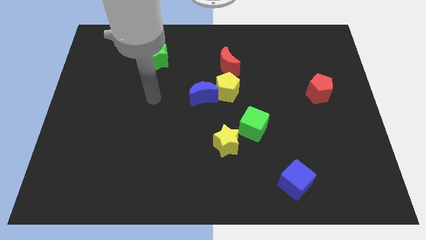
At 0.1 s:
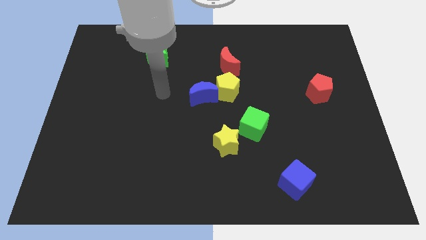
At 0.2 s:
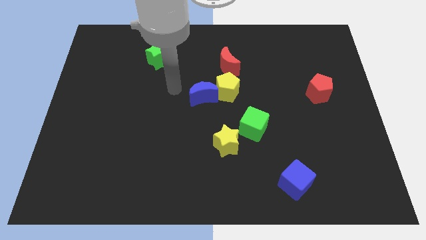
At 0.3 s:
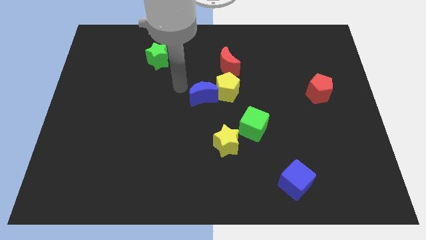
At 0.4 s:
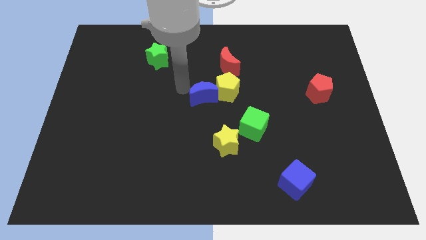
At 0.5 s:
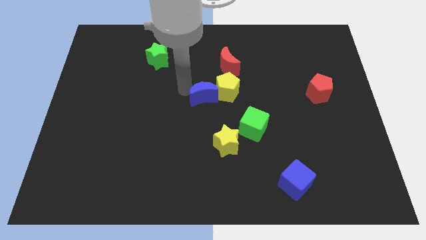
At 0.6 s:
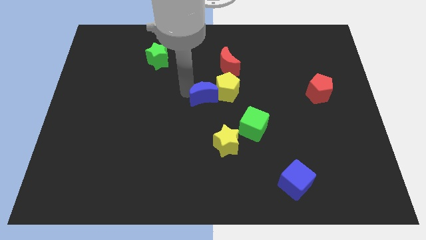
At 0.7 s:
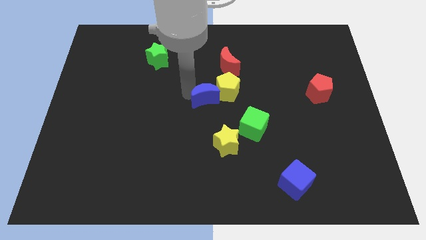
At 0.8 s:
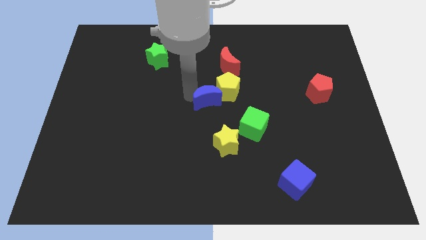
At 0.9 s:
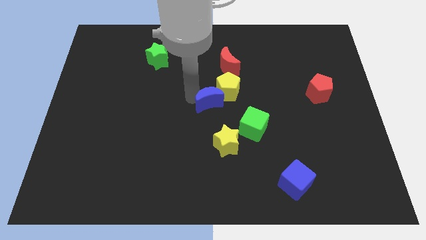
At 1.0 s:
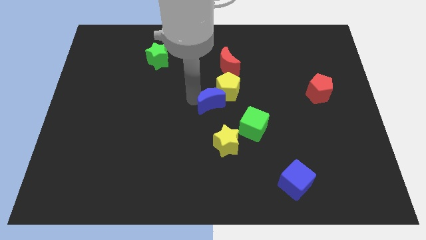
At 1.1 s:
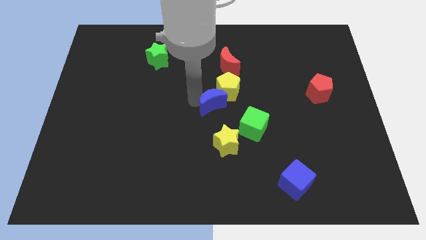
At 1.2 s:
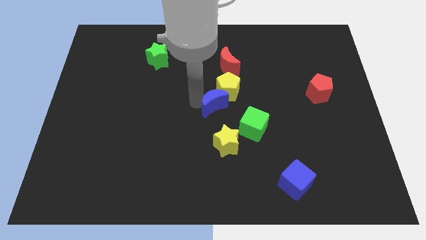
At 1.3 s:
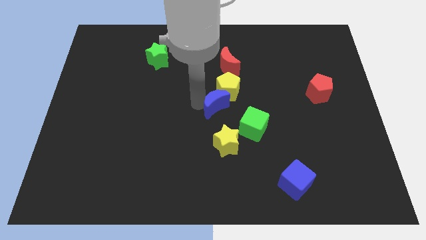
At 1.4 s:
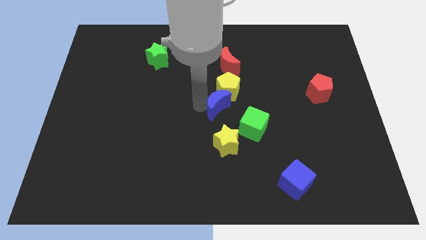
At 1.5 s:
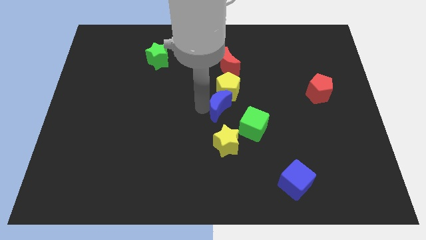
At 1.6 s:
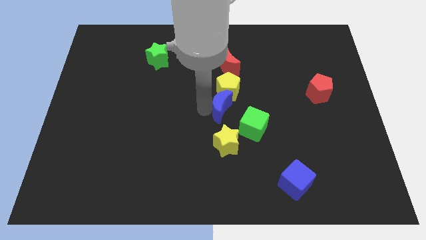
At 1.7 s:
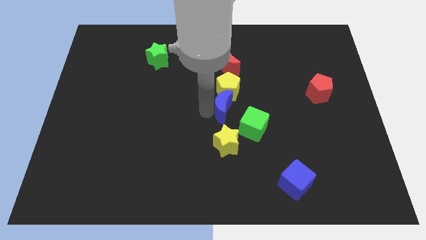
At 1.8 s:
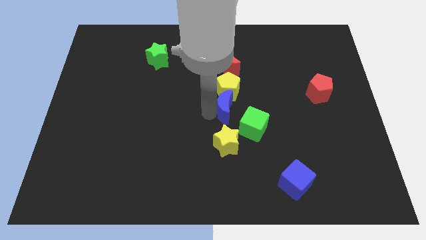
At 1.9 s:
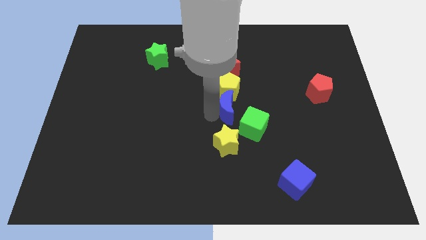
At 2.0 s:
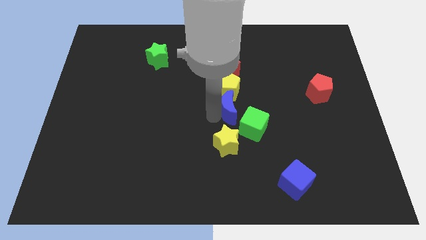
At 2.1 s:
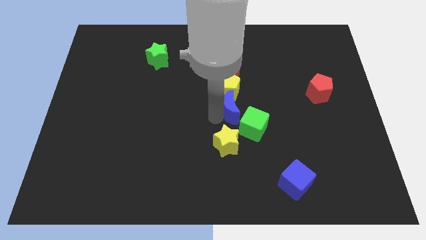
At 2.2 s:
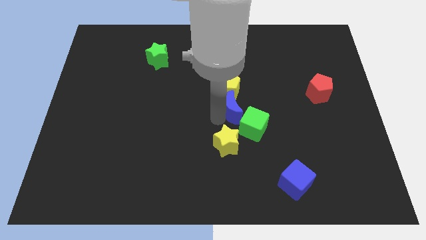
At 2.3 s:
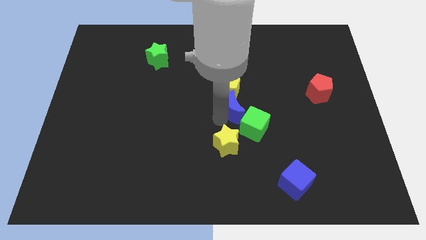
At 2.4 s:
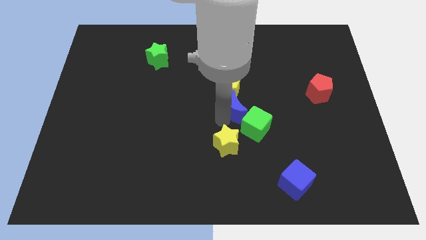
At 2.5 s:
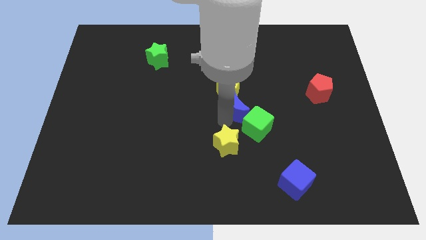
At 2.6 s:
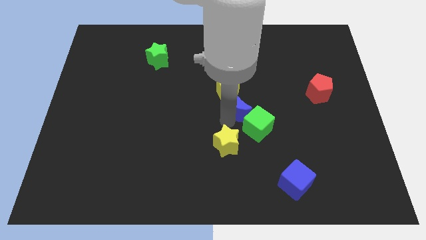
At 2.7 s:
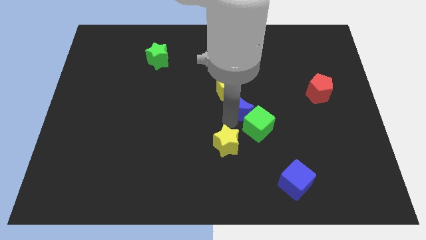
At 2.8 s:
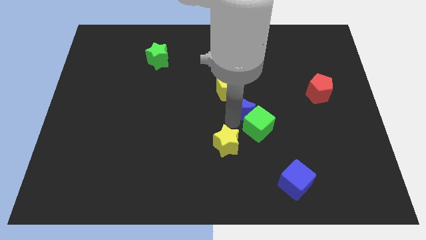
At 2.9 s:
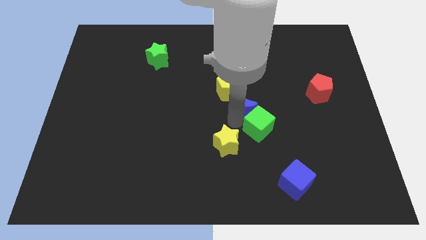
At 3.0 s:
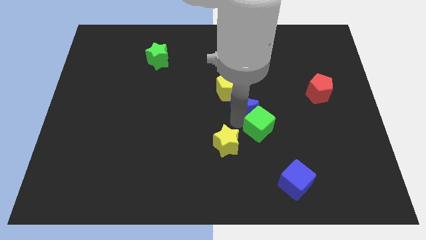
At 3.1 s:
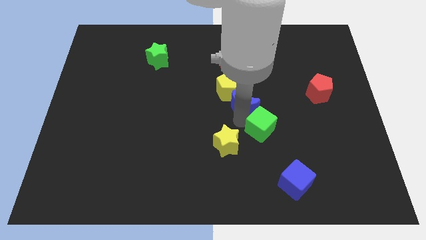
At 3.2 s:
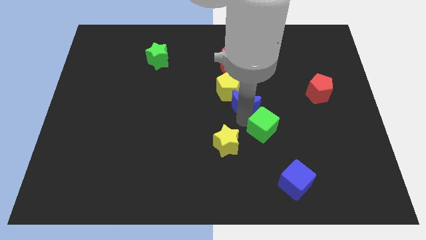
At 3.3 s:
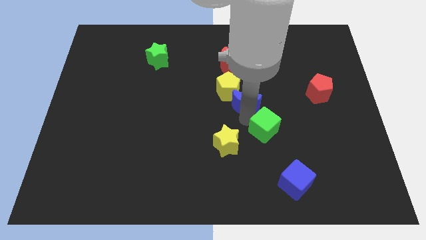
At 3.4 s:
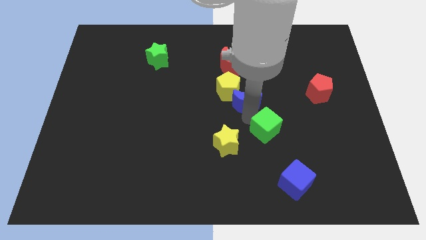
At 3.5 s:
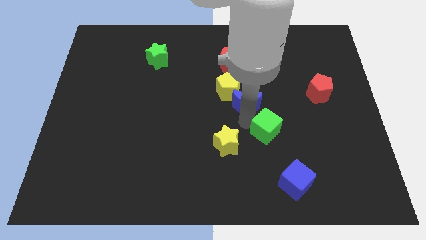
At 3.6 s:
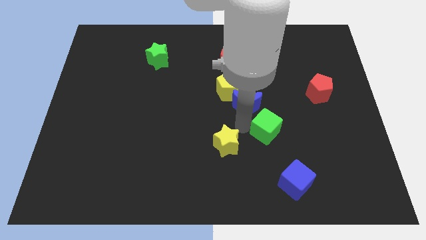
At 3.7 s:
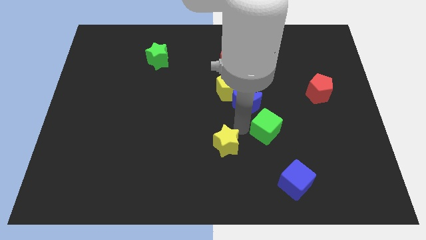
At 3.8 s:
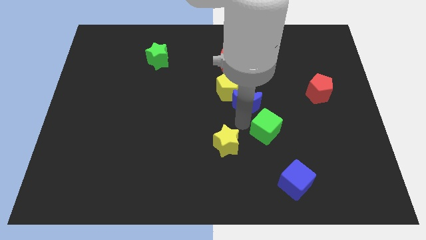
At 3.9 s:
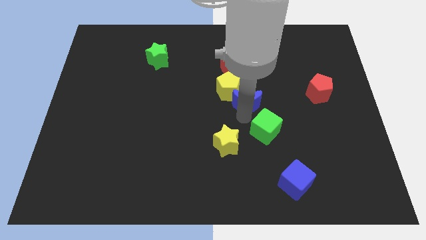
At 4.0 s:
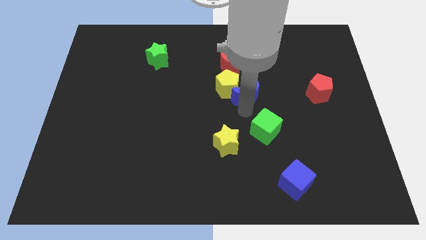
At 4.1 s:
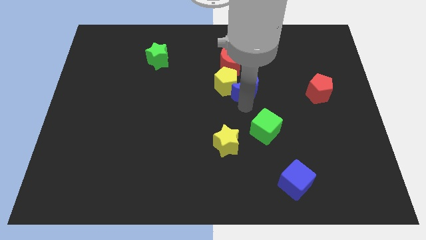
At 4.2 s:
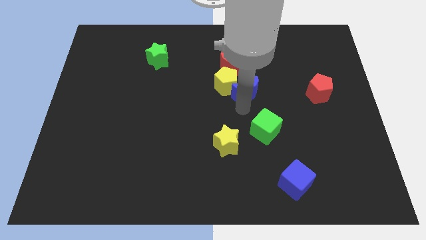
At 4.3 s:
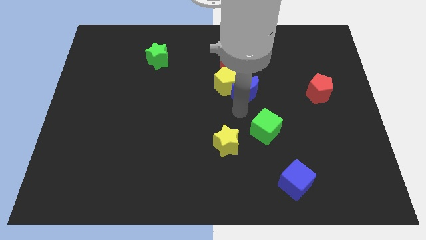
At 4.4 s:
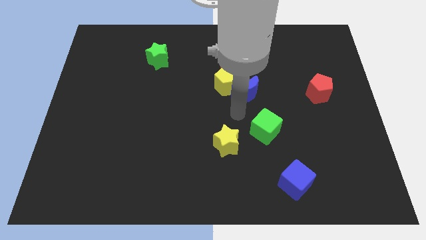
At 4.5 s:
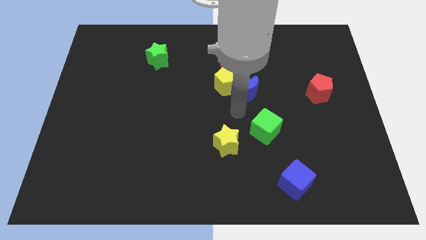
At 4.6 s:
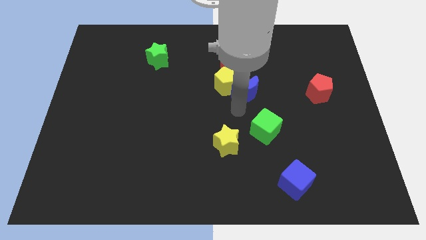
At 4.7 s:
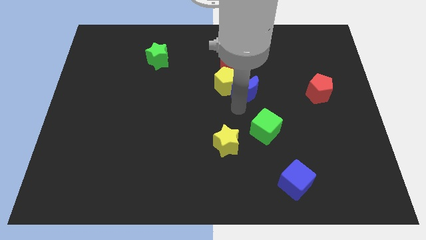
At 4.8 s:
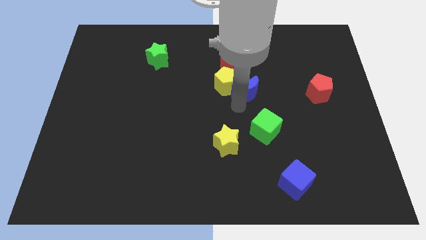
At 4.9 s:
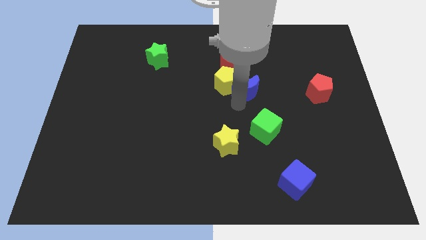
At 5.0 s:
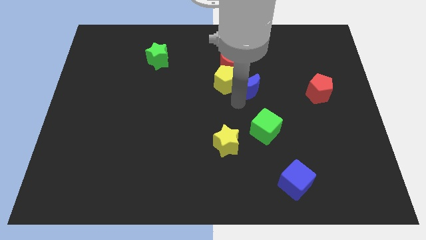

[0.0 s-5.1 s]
move the blue moon up and right diagonally slightly

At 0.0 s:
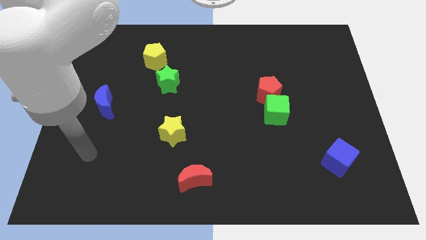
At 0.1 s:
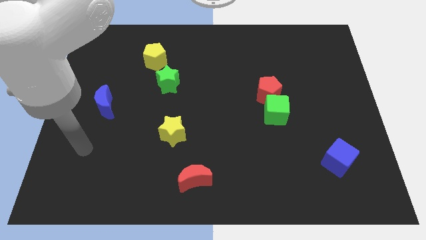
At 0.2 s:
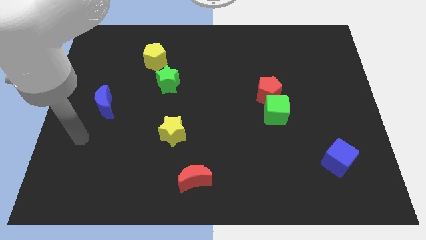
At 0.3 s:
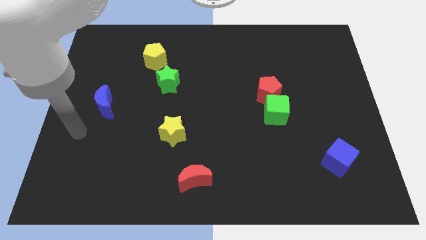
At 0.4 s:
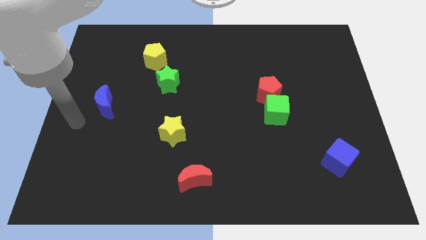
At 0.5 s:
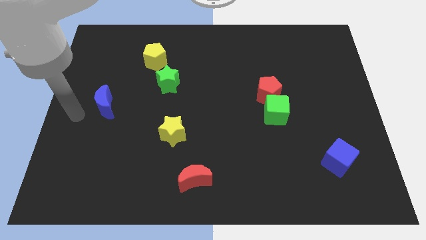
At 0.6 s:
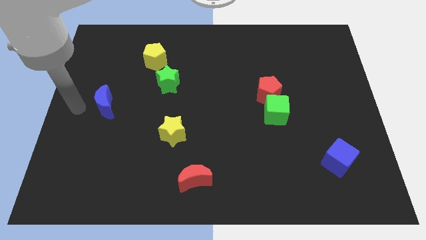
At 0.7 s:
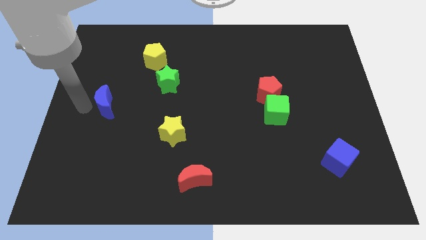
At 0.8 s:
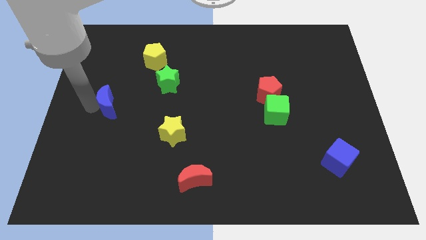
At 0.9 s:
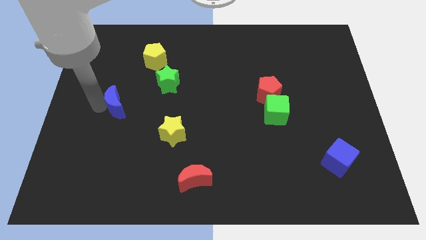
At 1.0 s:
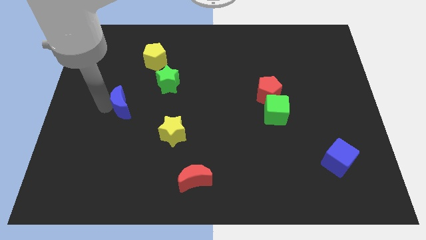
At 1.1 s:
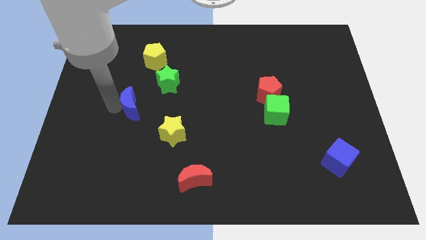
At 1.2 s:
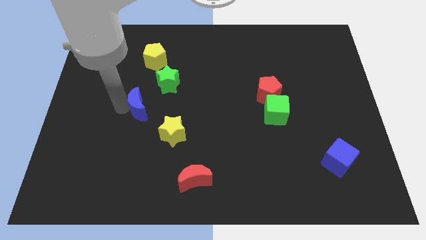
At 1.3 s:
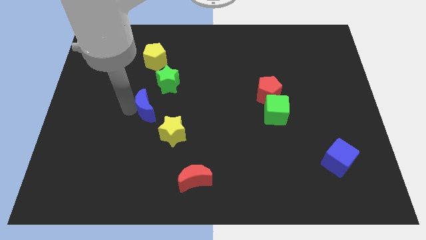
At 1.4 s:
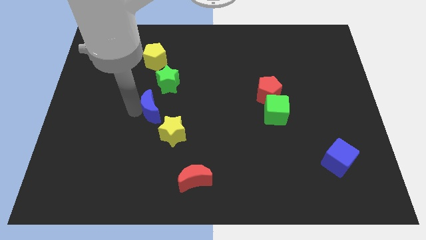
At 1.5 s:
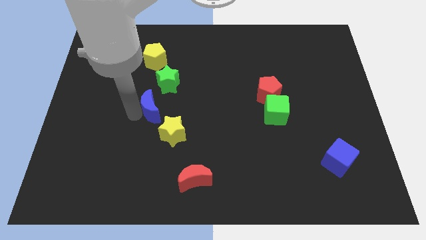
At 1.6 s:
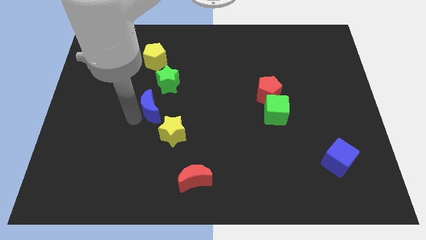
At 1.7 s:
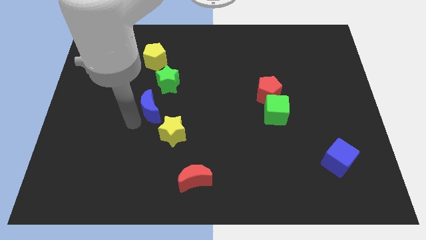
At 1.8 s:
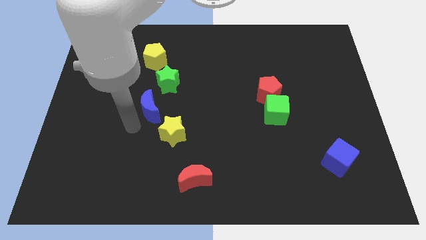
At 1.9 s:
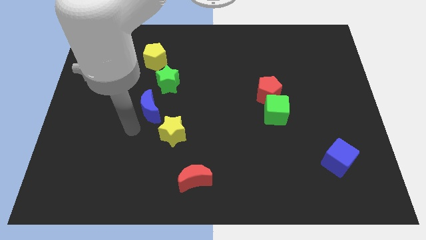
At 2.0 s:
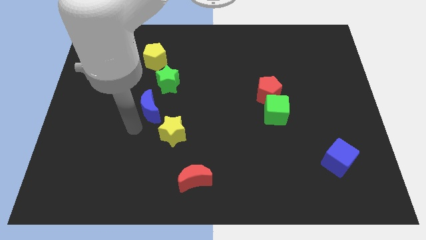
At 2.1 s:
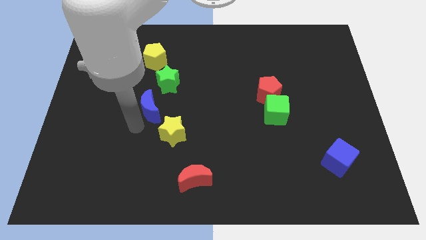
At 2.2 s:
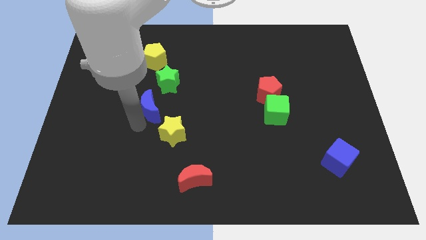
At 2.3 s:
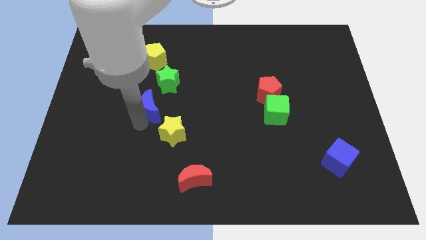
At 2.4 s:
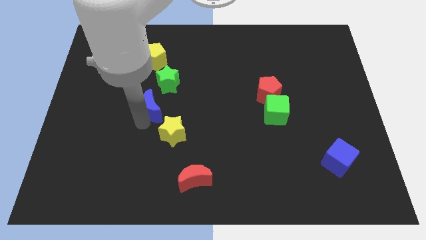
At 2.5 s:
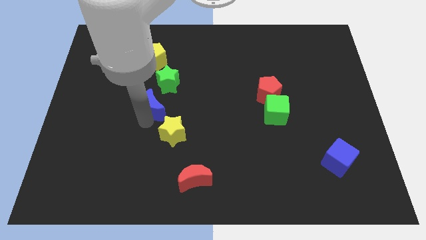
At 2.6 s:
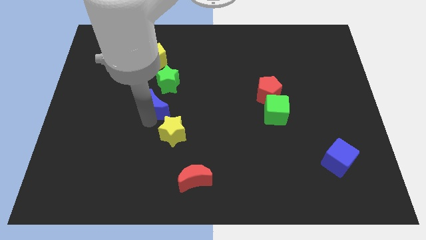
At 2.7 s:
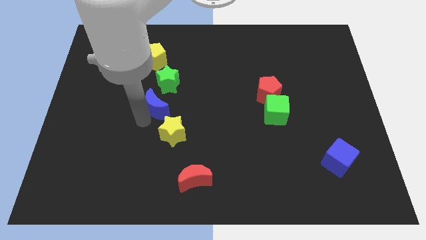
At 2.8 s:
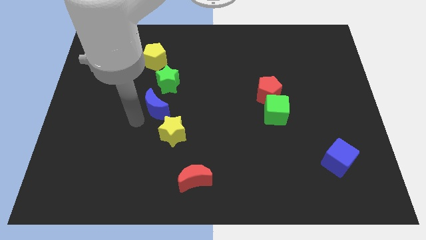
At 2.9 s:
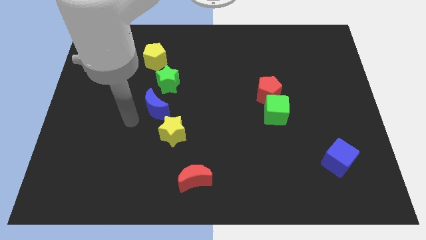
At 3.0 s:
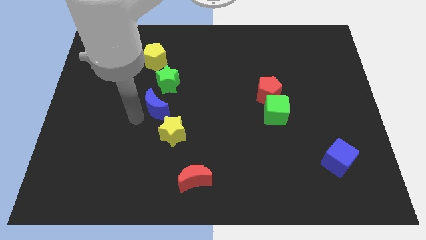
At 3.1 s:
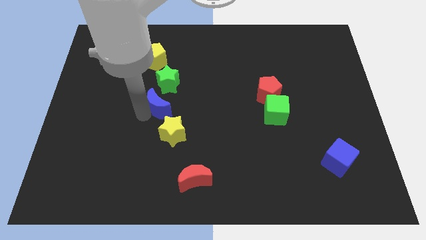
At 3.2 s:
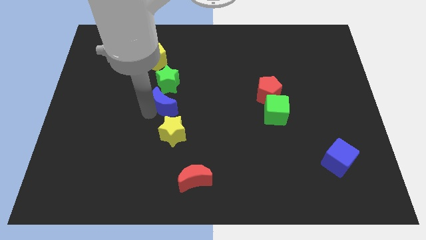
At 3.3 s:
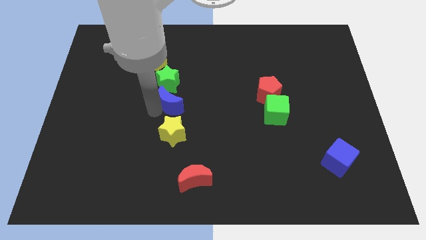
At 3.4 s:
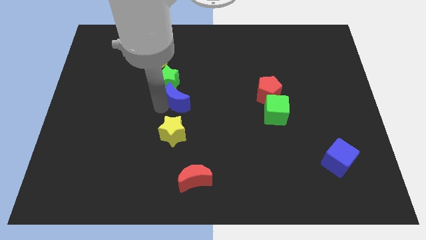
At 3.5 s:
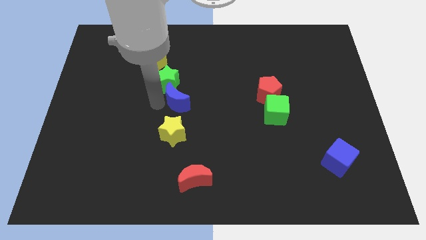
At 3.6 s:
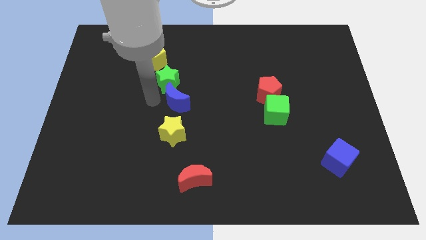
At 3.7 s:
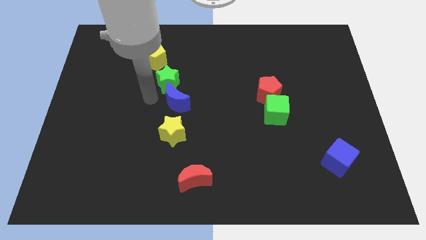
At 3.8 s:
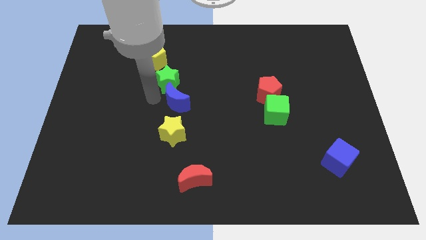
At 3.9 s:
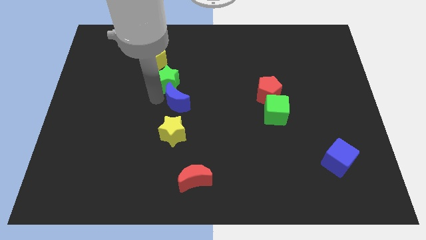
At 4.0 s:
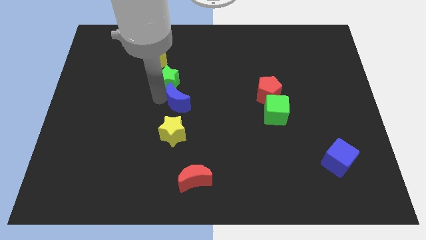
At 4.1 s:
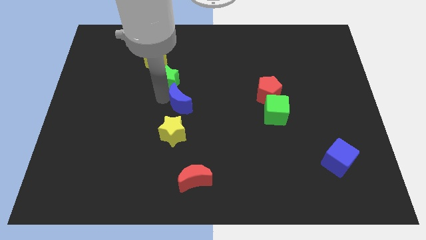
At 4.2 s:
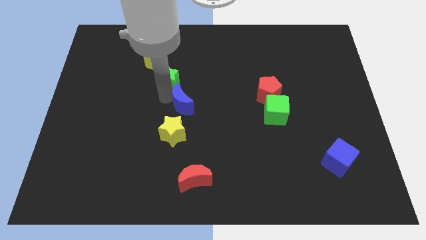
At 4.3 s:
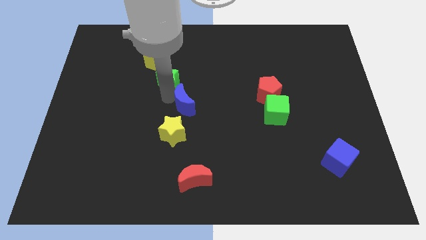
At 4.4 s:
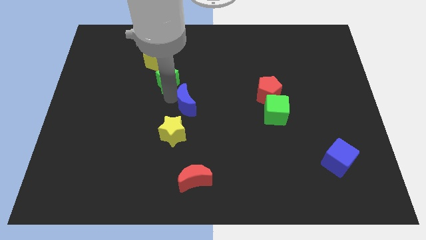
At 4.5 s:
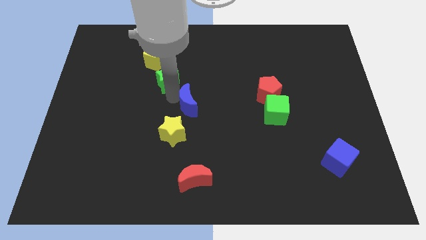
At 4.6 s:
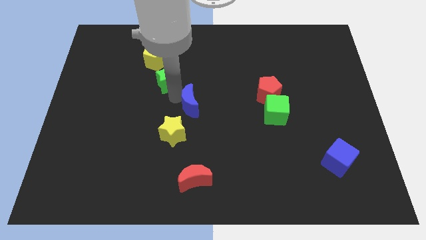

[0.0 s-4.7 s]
push the blue moon right
